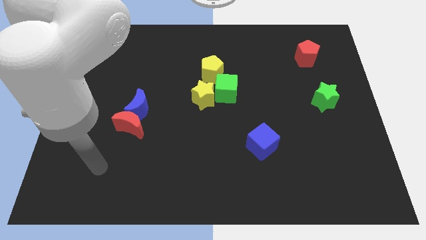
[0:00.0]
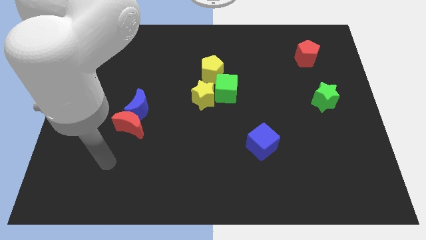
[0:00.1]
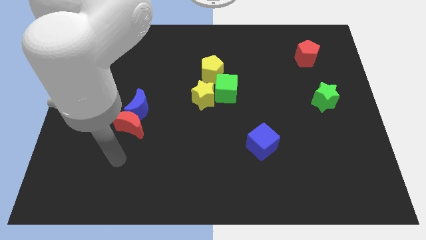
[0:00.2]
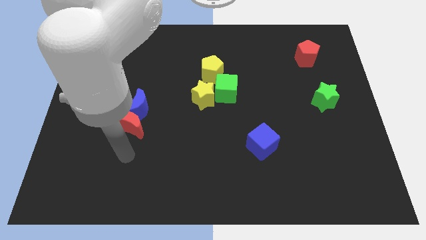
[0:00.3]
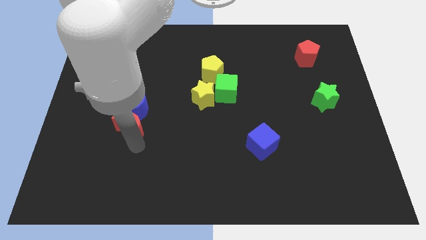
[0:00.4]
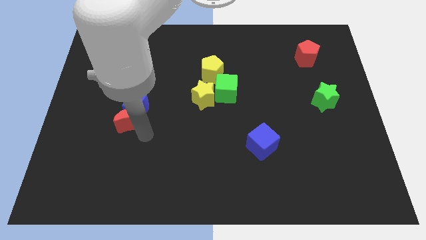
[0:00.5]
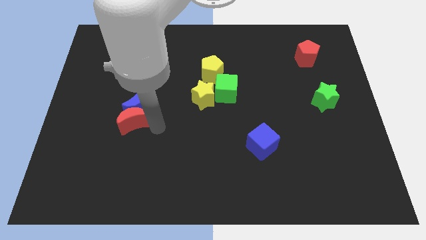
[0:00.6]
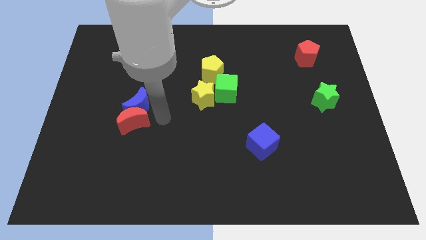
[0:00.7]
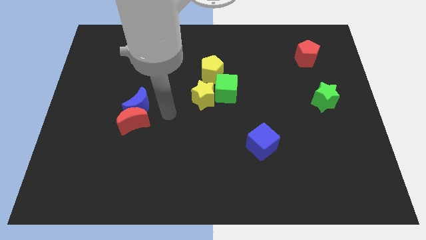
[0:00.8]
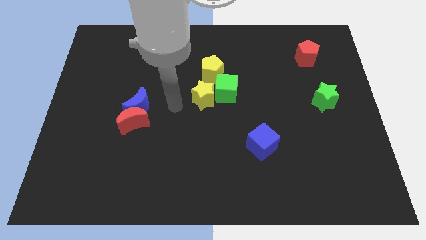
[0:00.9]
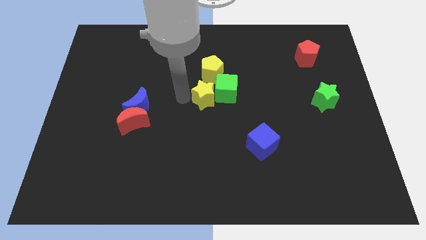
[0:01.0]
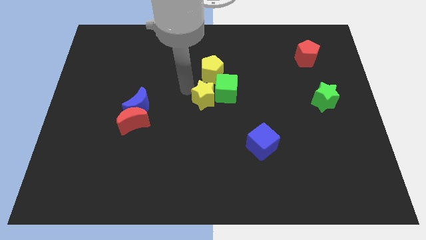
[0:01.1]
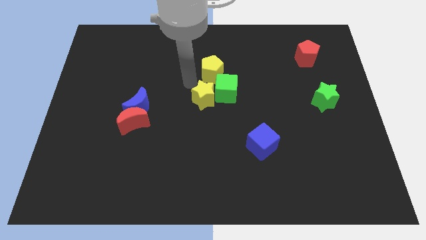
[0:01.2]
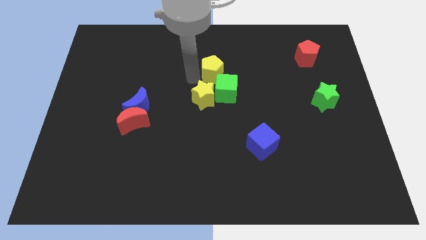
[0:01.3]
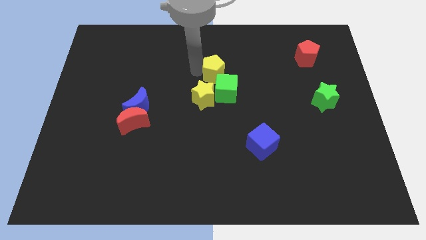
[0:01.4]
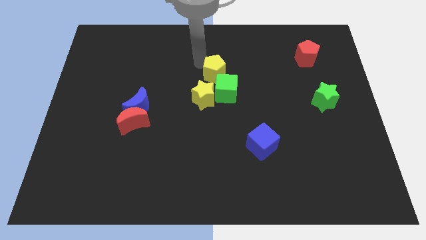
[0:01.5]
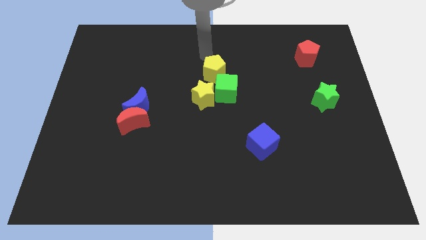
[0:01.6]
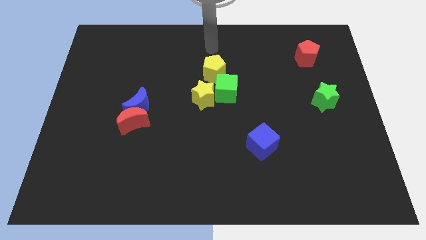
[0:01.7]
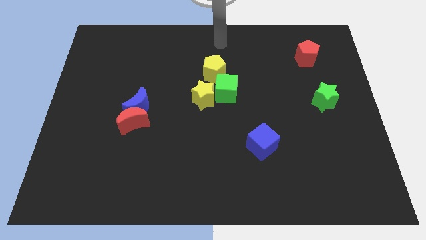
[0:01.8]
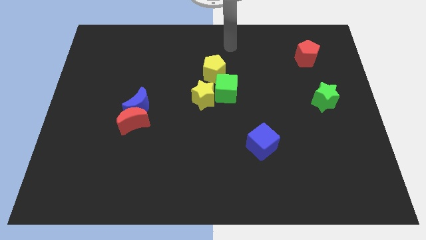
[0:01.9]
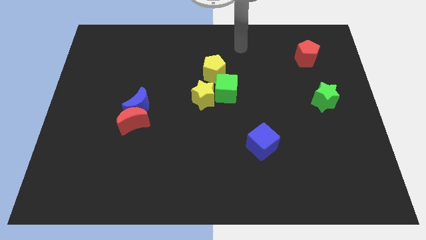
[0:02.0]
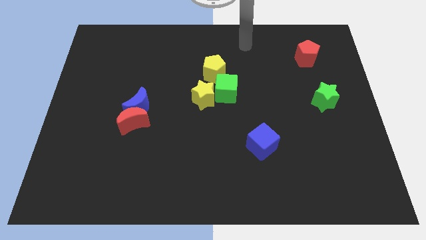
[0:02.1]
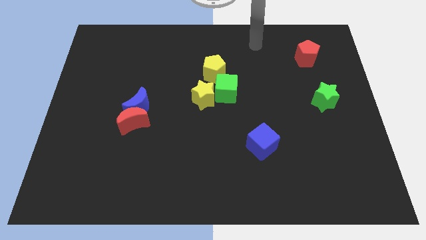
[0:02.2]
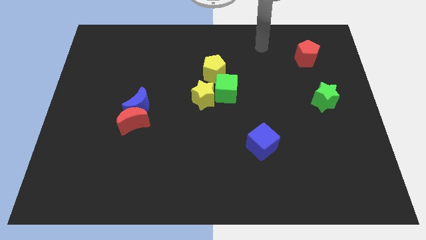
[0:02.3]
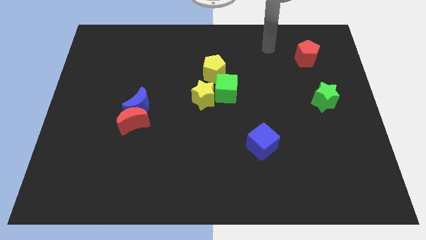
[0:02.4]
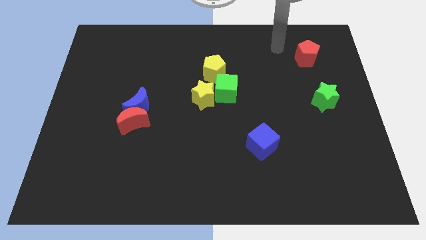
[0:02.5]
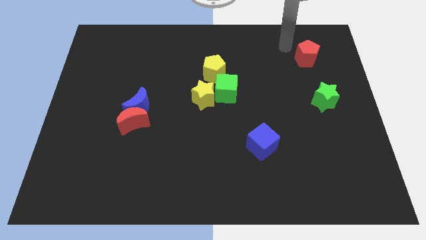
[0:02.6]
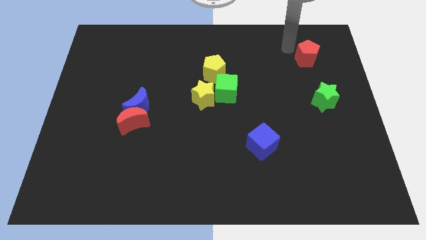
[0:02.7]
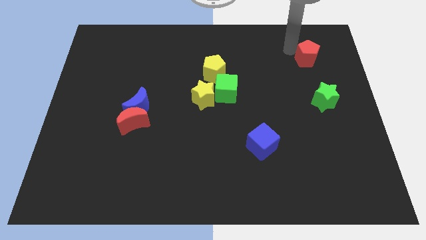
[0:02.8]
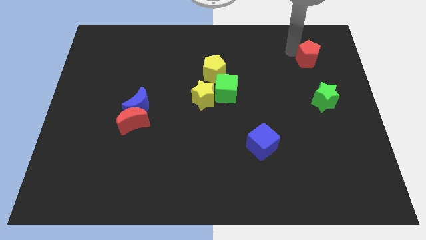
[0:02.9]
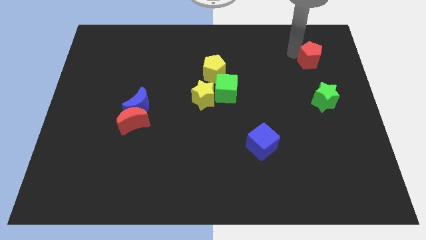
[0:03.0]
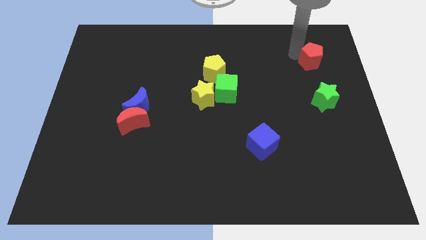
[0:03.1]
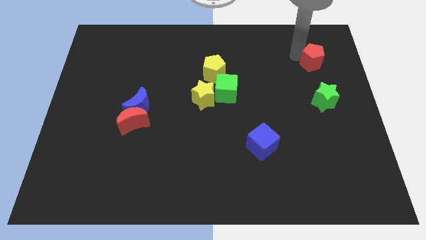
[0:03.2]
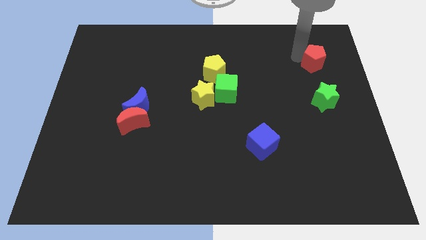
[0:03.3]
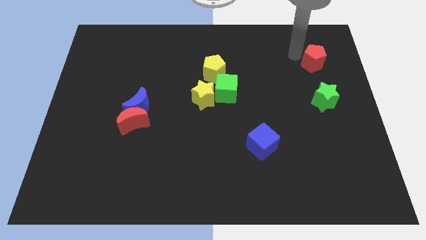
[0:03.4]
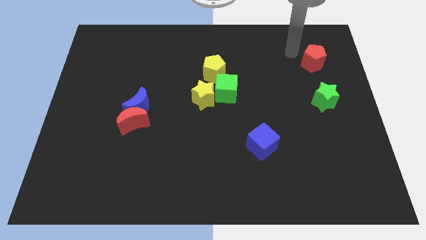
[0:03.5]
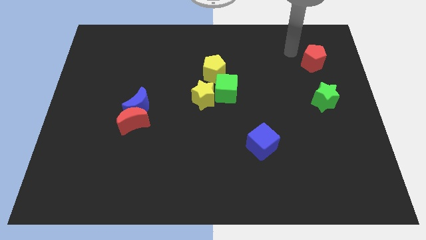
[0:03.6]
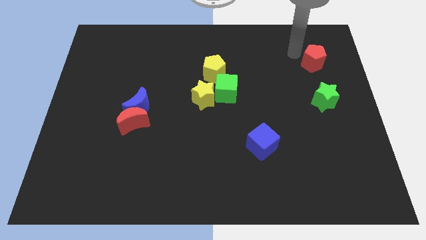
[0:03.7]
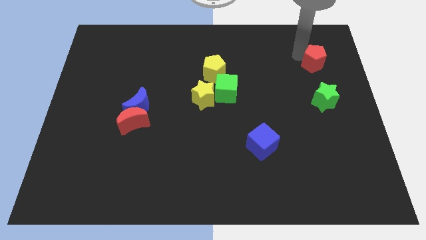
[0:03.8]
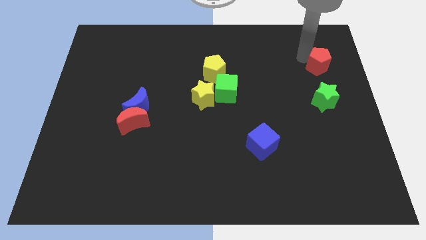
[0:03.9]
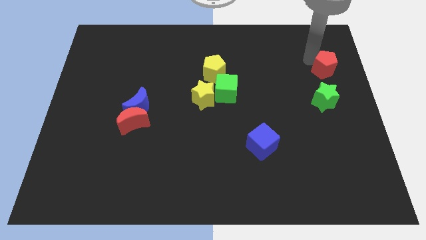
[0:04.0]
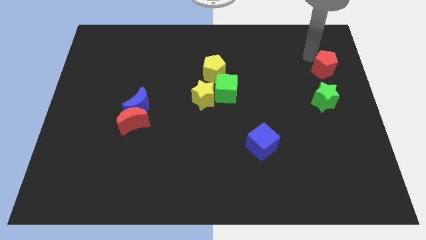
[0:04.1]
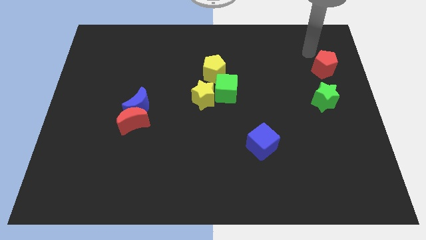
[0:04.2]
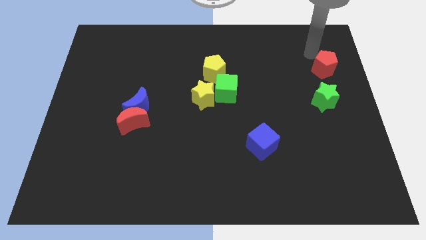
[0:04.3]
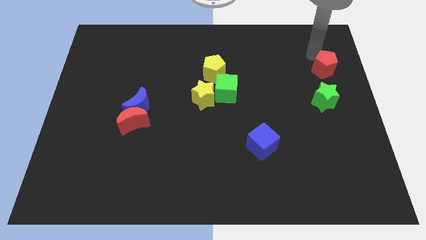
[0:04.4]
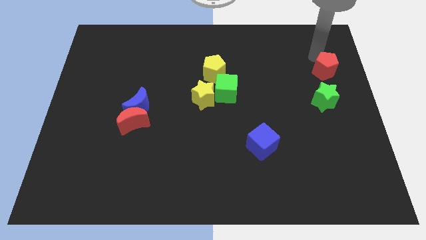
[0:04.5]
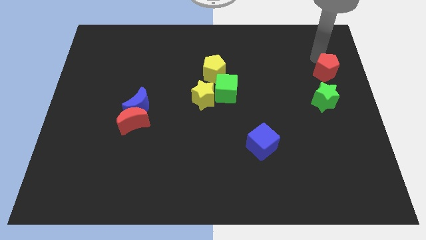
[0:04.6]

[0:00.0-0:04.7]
put the red pentagon to the right side

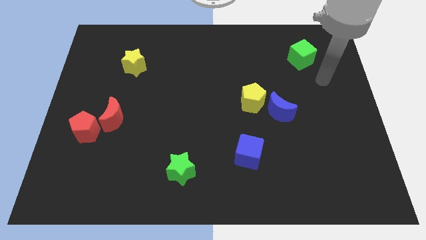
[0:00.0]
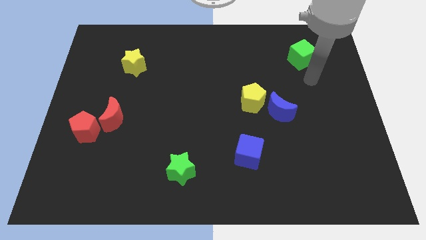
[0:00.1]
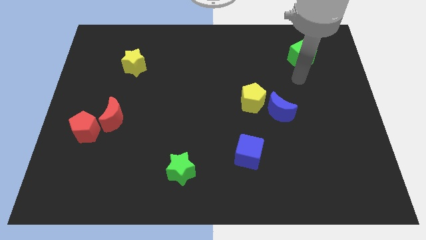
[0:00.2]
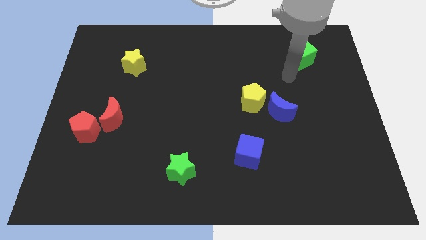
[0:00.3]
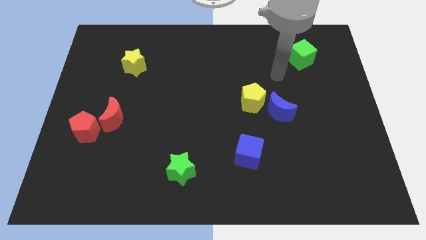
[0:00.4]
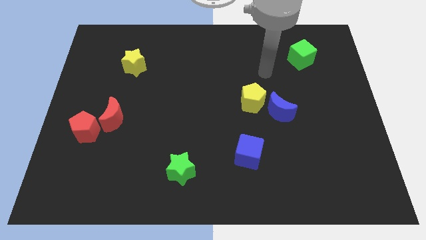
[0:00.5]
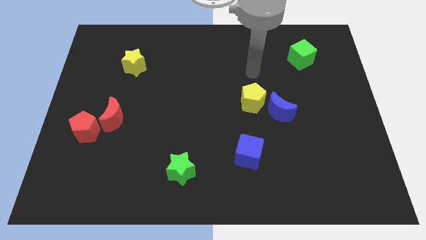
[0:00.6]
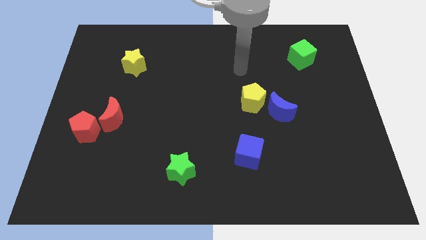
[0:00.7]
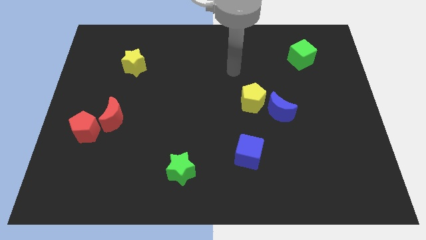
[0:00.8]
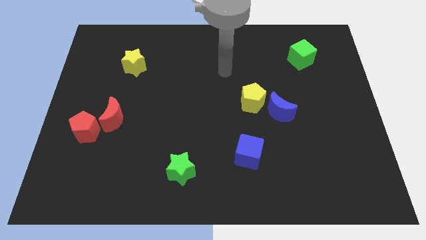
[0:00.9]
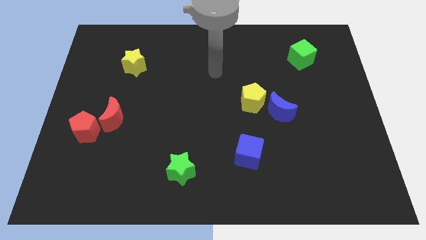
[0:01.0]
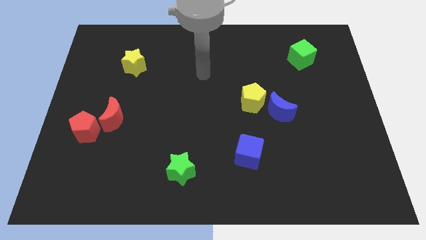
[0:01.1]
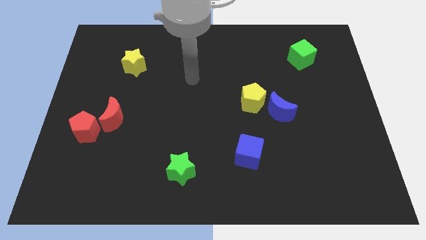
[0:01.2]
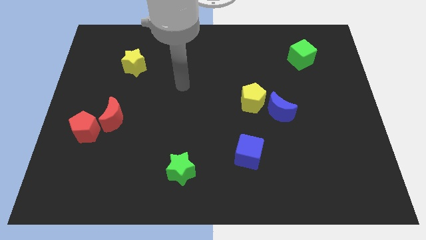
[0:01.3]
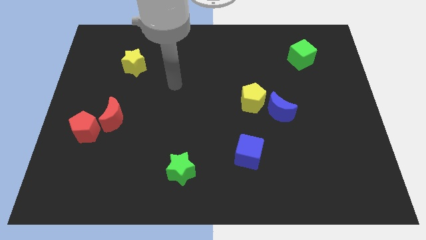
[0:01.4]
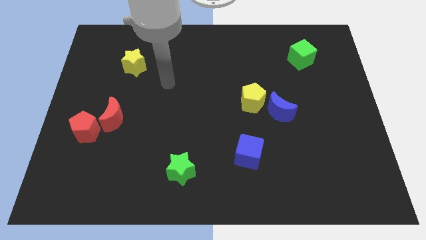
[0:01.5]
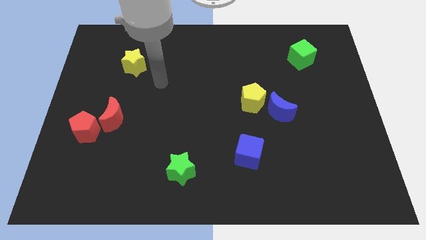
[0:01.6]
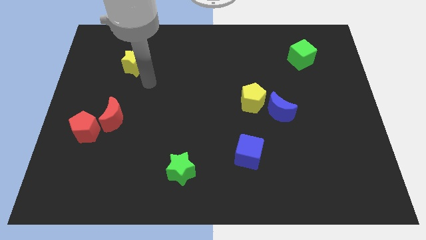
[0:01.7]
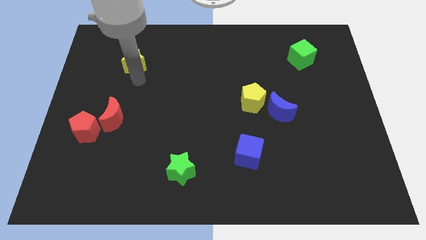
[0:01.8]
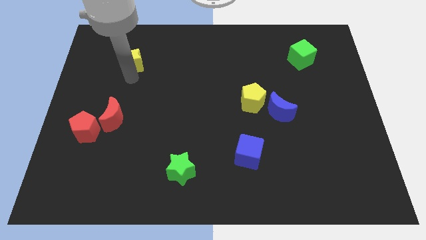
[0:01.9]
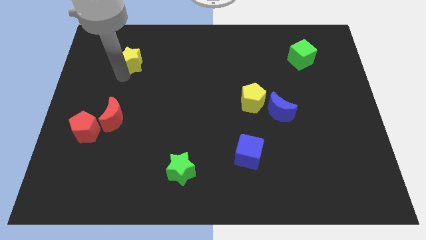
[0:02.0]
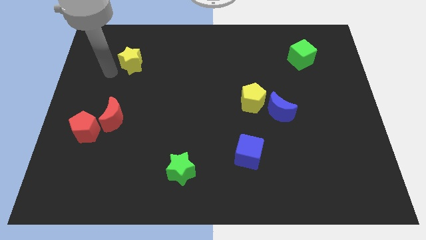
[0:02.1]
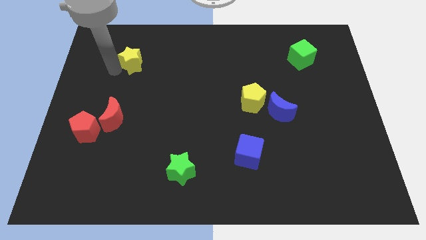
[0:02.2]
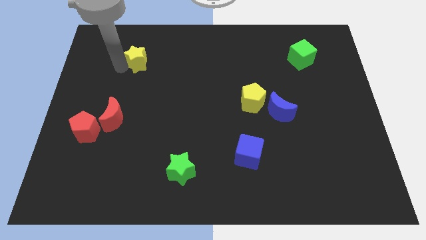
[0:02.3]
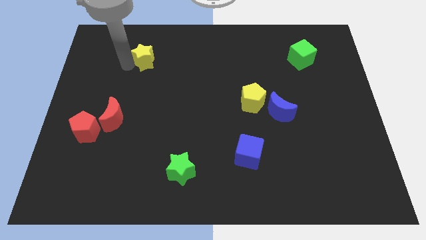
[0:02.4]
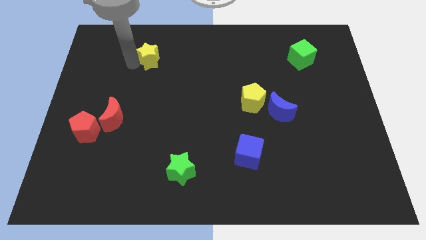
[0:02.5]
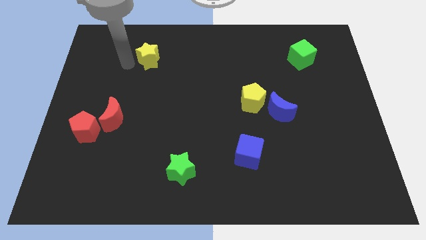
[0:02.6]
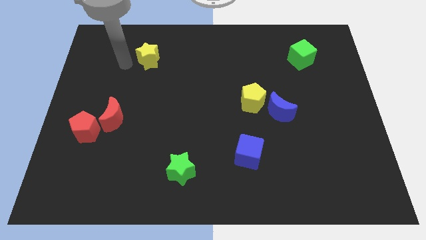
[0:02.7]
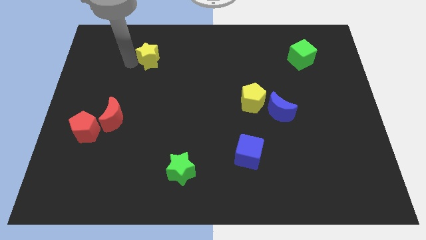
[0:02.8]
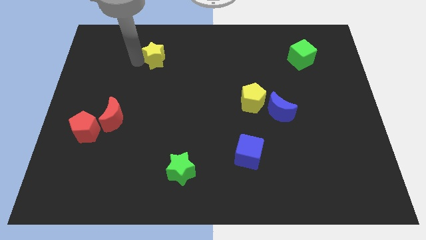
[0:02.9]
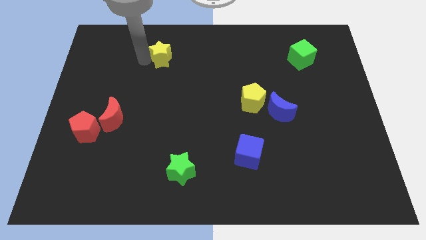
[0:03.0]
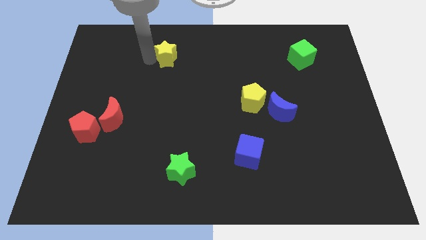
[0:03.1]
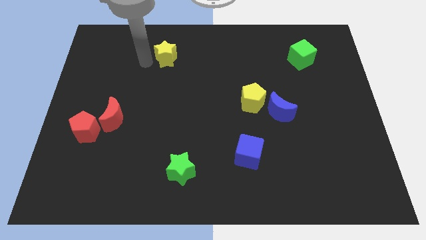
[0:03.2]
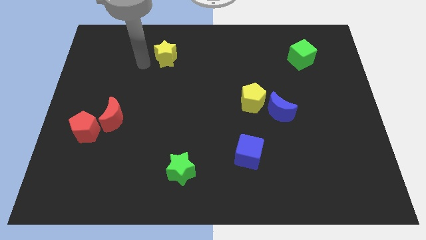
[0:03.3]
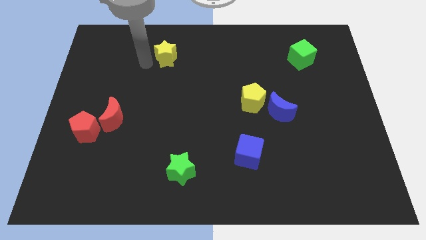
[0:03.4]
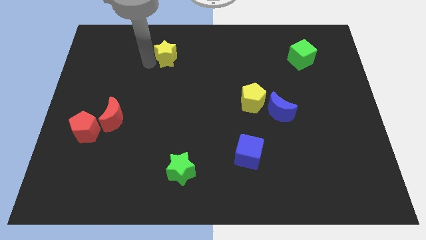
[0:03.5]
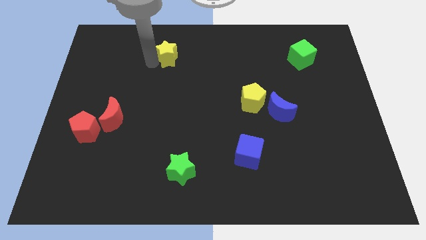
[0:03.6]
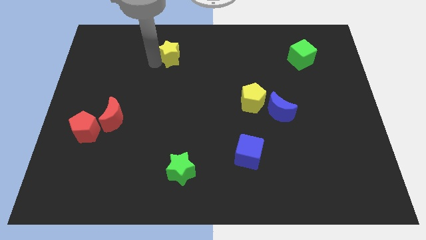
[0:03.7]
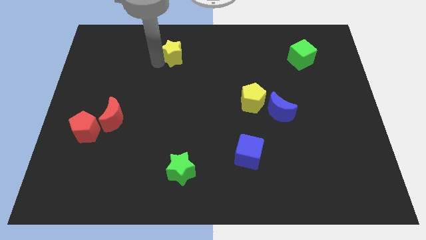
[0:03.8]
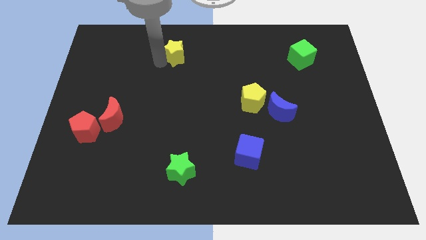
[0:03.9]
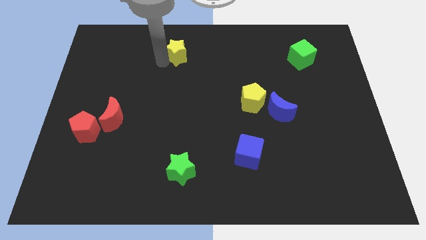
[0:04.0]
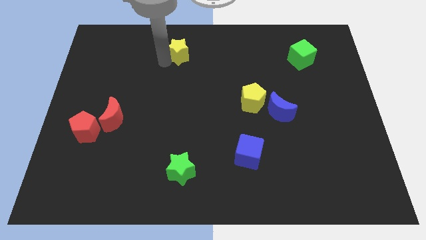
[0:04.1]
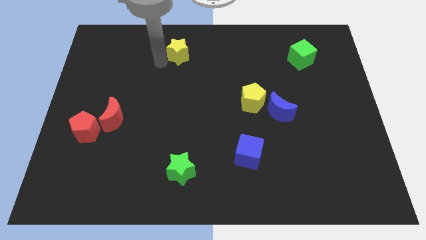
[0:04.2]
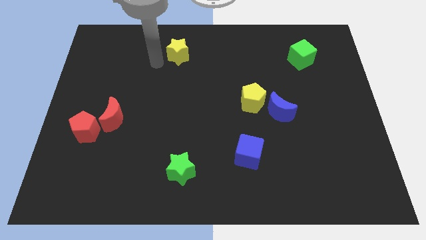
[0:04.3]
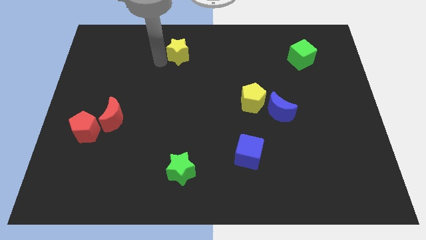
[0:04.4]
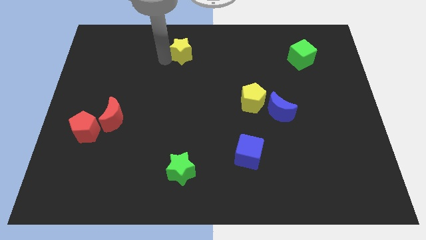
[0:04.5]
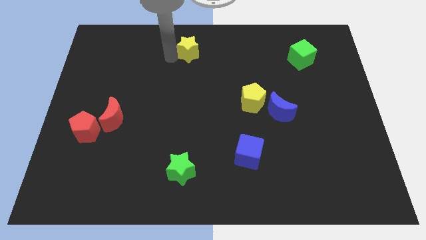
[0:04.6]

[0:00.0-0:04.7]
put the yellow star to the towards your base
